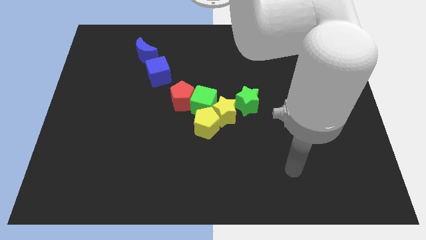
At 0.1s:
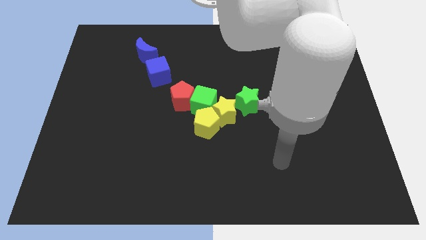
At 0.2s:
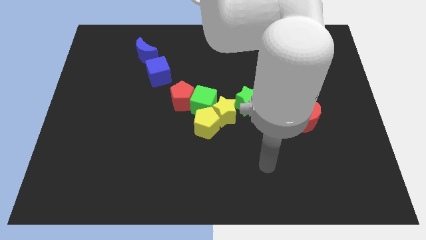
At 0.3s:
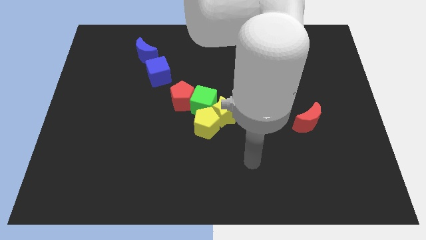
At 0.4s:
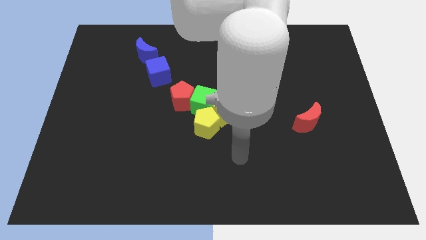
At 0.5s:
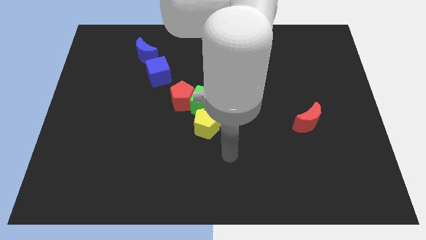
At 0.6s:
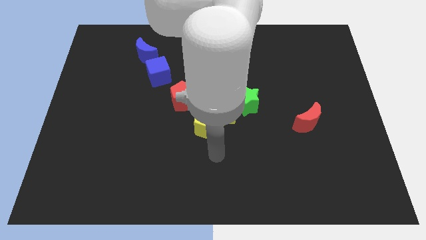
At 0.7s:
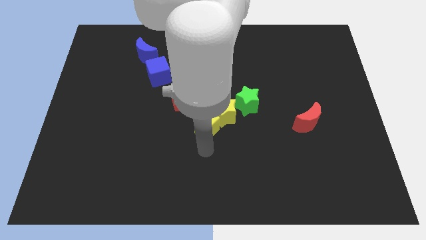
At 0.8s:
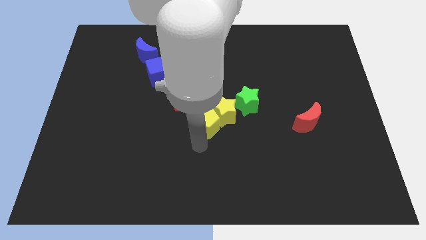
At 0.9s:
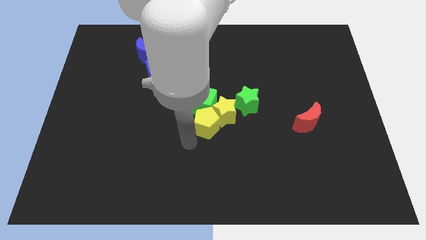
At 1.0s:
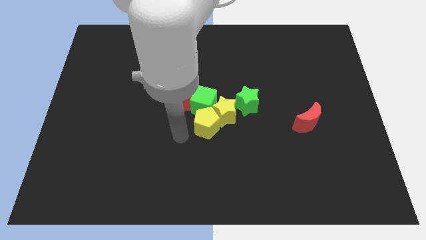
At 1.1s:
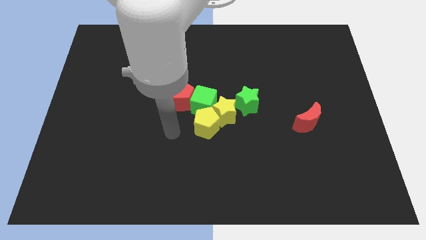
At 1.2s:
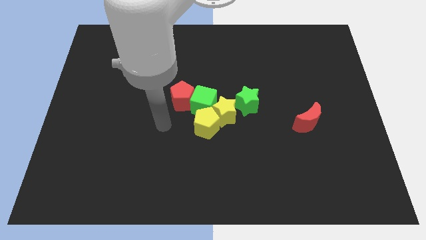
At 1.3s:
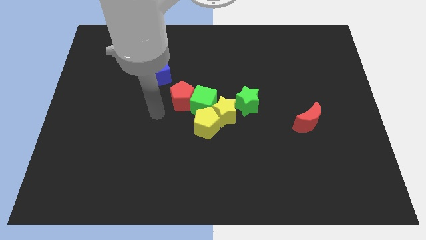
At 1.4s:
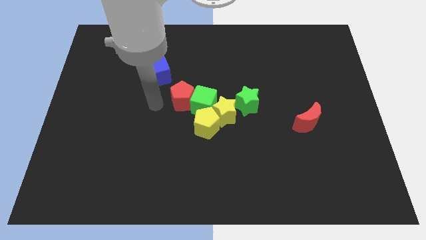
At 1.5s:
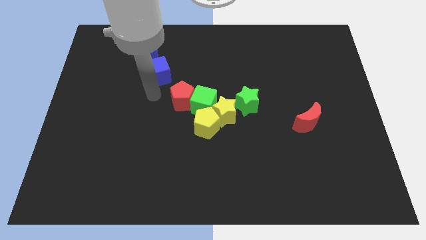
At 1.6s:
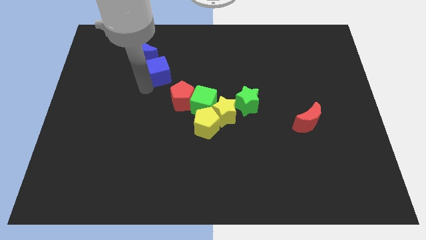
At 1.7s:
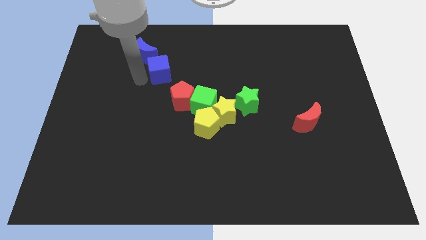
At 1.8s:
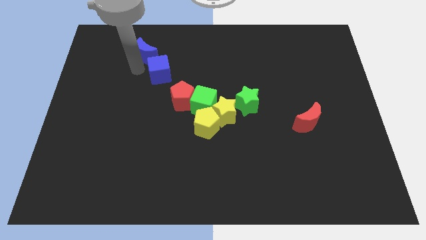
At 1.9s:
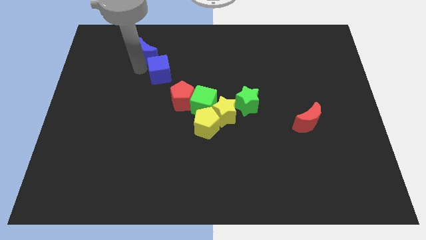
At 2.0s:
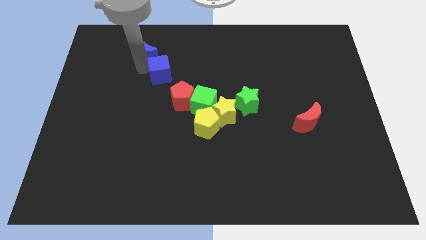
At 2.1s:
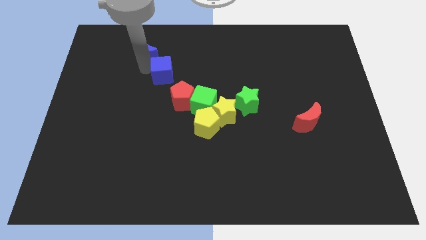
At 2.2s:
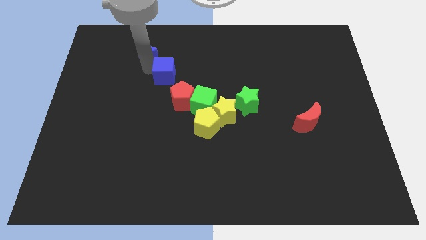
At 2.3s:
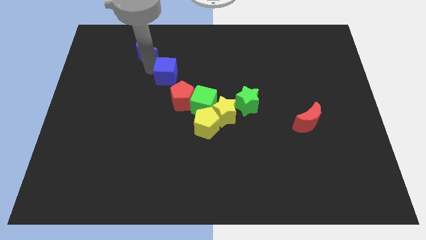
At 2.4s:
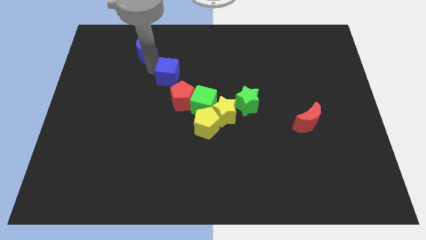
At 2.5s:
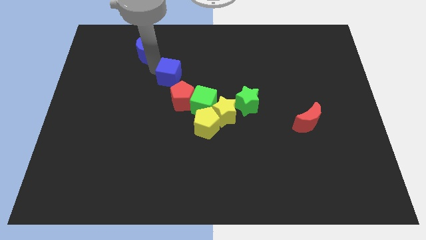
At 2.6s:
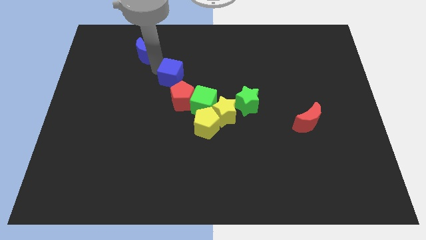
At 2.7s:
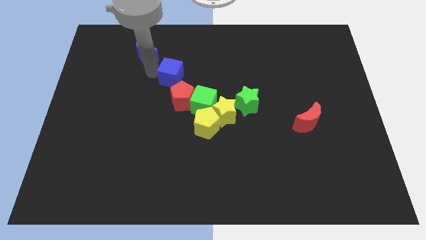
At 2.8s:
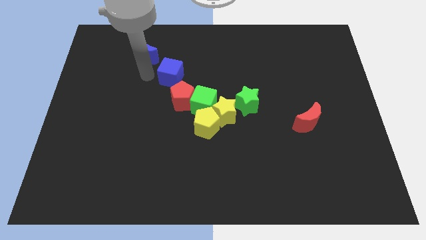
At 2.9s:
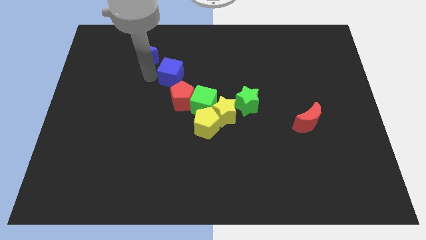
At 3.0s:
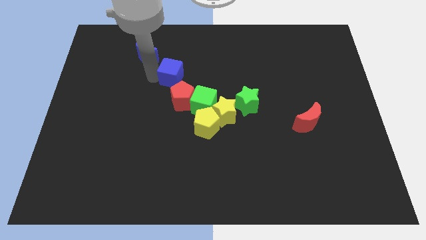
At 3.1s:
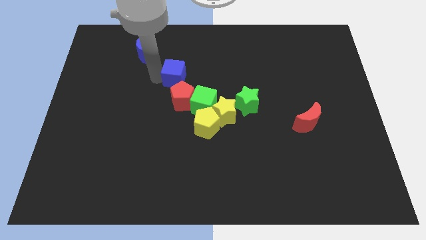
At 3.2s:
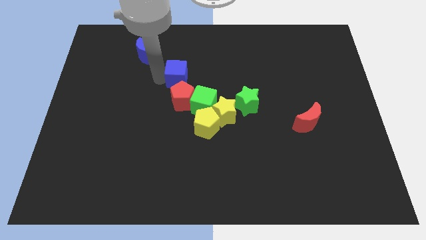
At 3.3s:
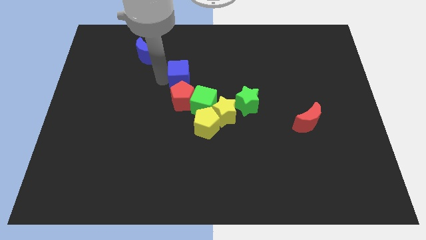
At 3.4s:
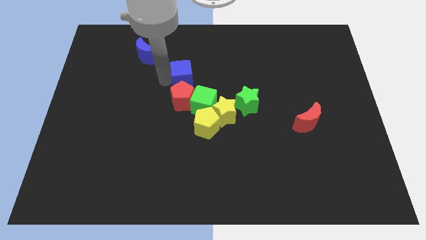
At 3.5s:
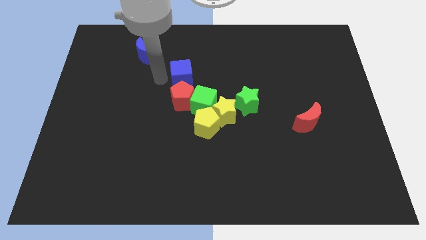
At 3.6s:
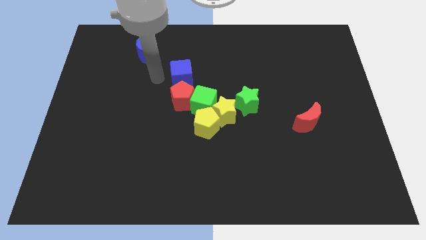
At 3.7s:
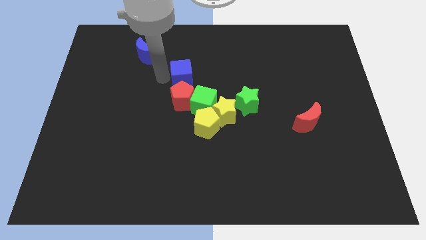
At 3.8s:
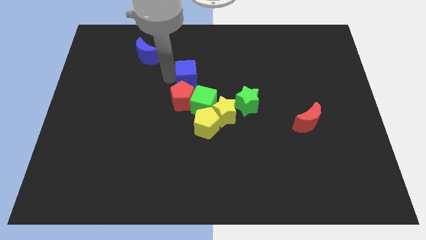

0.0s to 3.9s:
slightly move the blue cube right

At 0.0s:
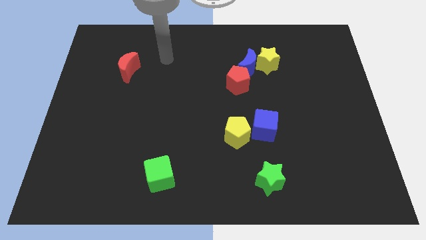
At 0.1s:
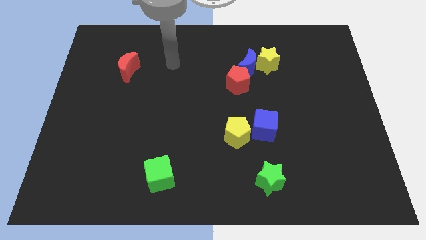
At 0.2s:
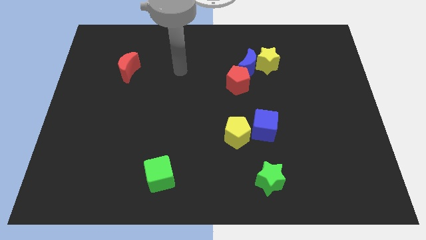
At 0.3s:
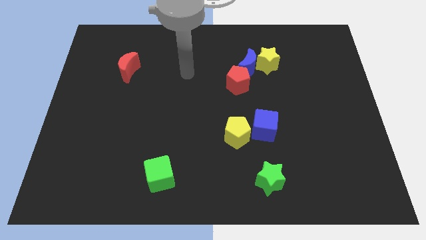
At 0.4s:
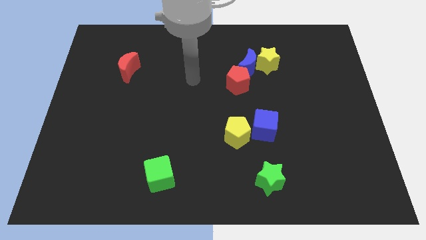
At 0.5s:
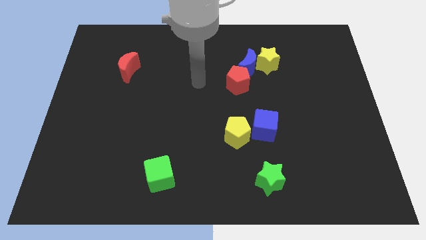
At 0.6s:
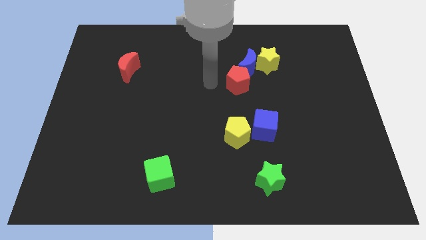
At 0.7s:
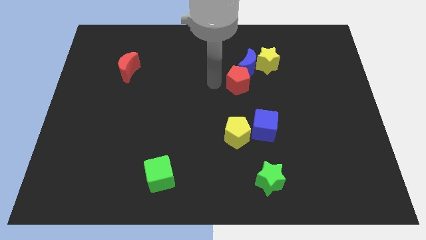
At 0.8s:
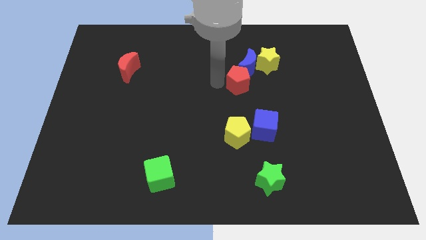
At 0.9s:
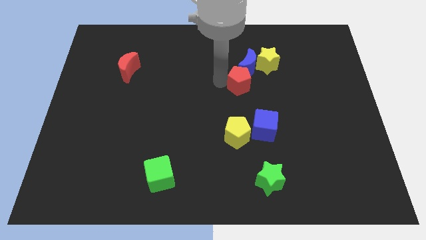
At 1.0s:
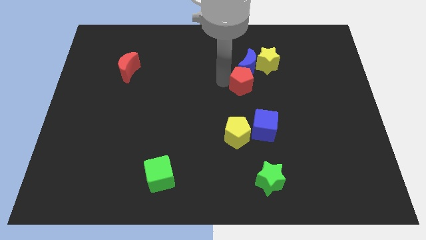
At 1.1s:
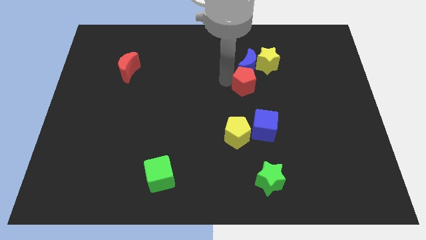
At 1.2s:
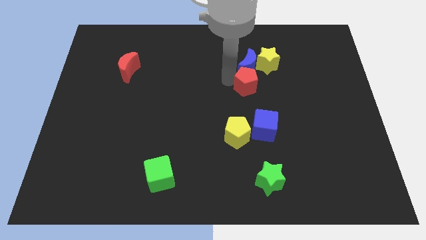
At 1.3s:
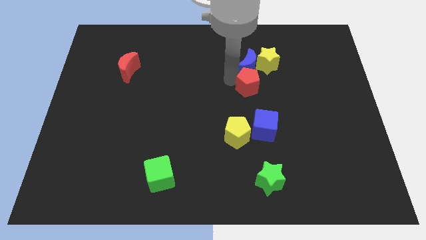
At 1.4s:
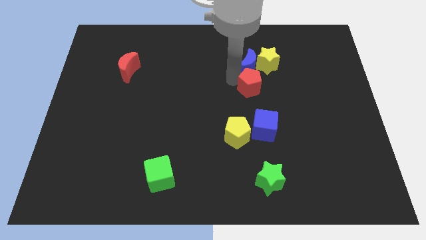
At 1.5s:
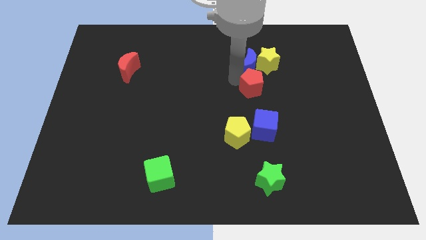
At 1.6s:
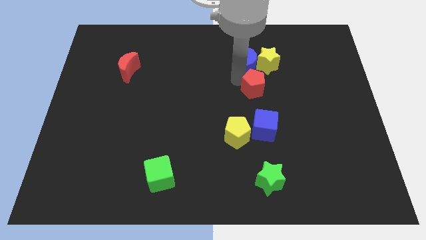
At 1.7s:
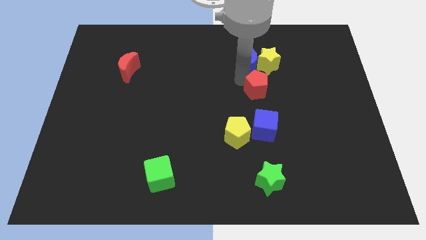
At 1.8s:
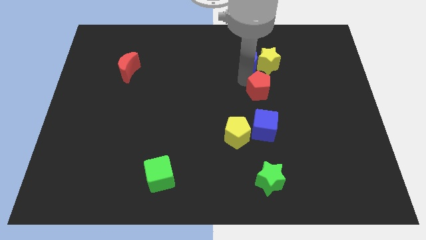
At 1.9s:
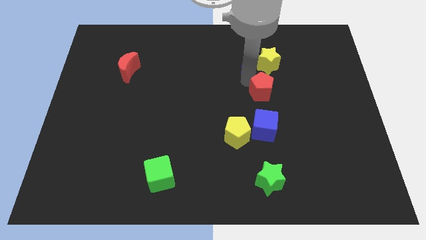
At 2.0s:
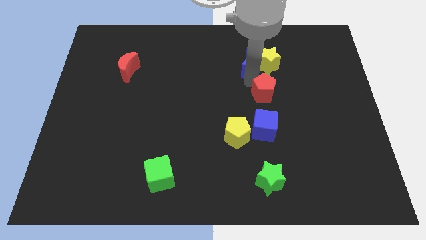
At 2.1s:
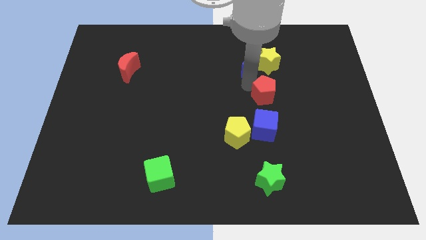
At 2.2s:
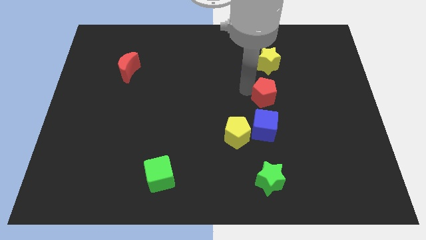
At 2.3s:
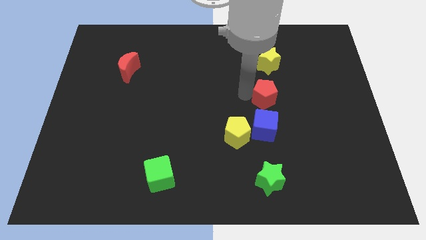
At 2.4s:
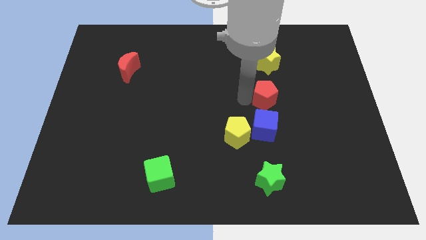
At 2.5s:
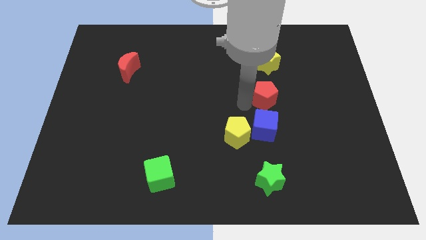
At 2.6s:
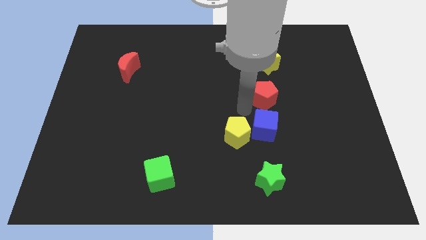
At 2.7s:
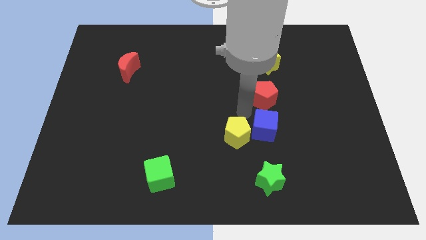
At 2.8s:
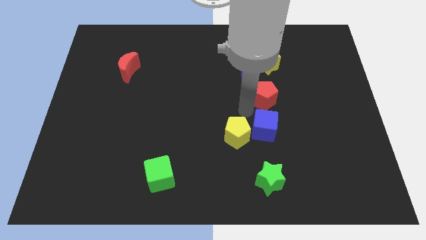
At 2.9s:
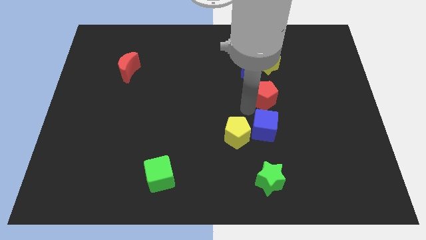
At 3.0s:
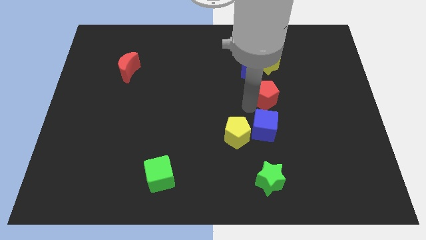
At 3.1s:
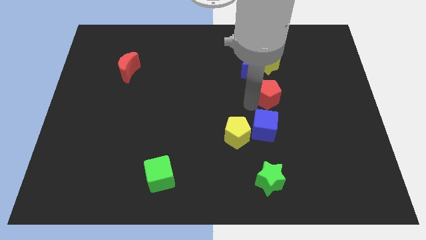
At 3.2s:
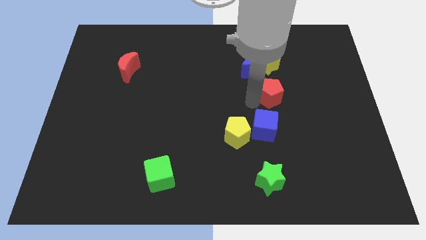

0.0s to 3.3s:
move the red pentagon somewhat right

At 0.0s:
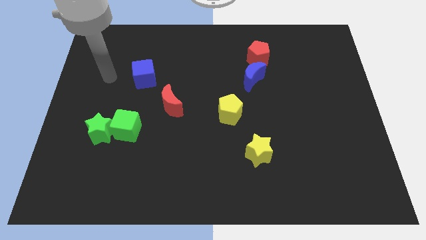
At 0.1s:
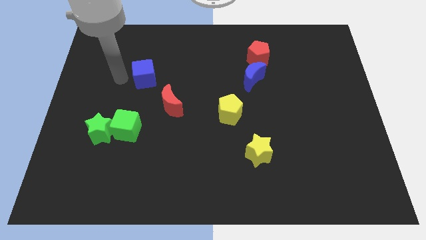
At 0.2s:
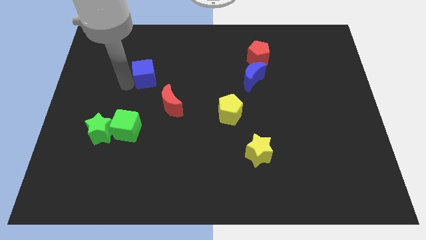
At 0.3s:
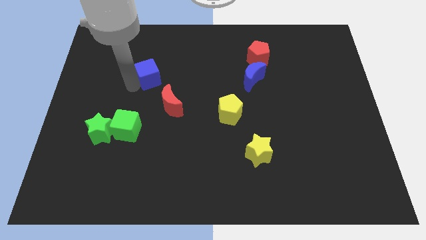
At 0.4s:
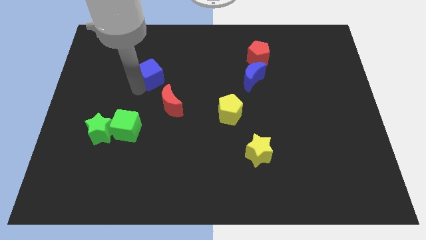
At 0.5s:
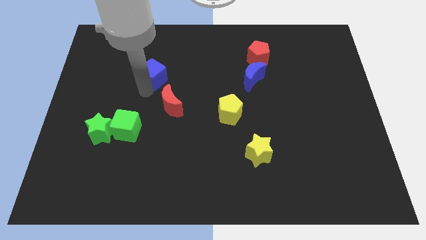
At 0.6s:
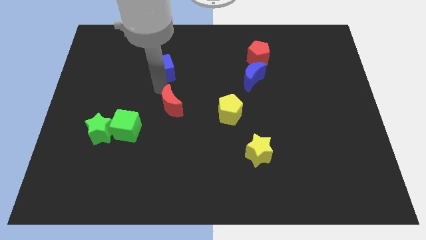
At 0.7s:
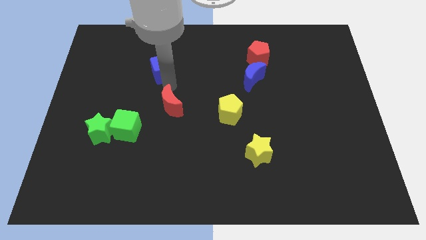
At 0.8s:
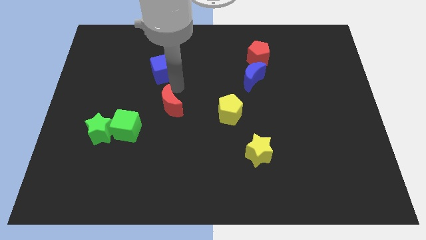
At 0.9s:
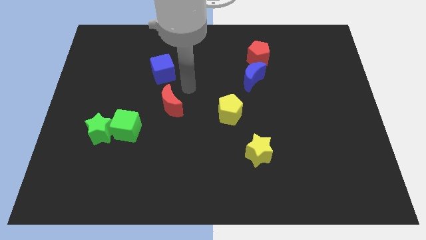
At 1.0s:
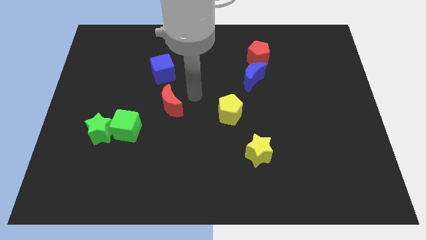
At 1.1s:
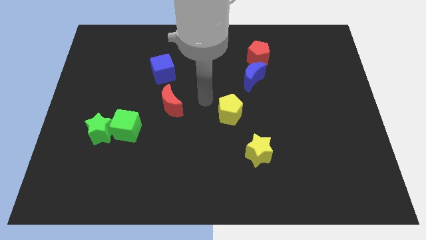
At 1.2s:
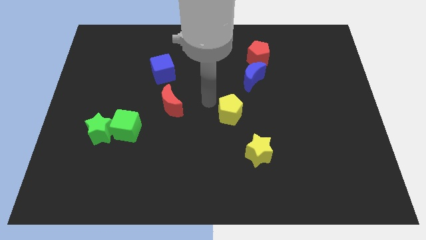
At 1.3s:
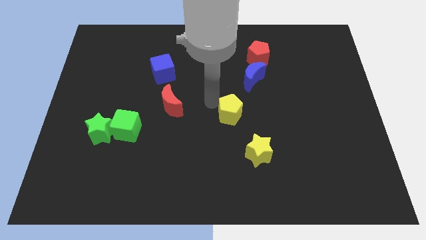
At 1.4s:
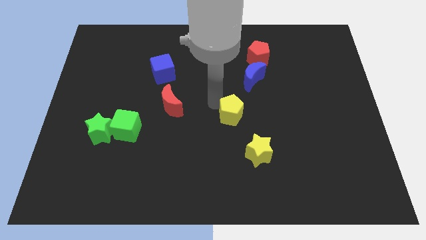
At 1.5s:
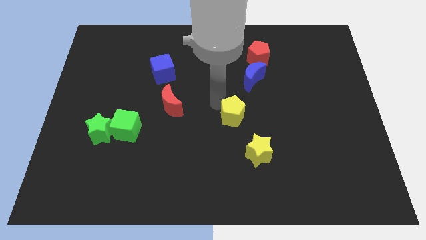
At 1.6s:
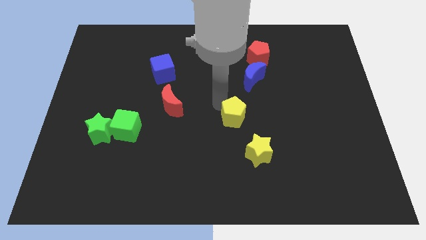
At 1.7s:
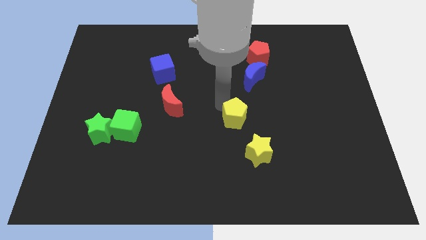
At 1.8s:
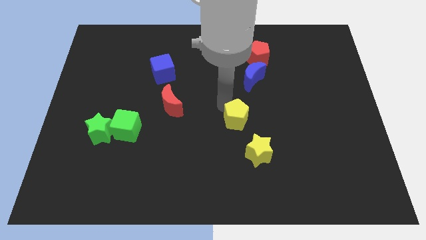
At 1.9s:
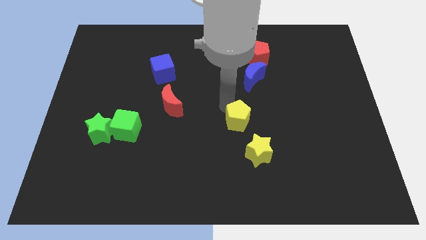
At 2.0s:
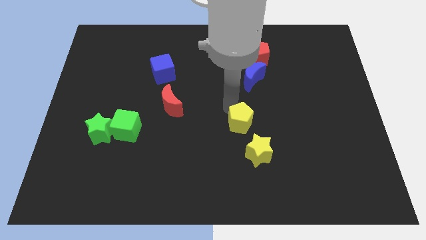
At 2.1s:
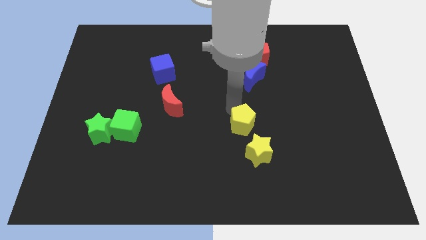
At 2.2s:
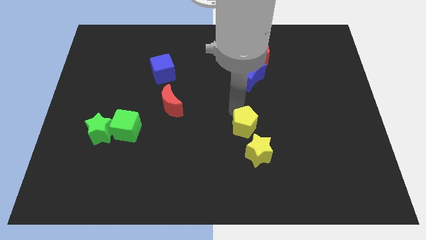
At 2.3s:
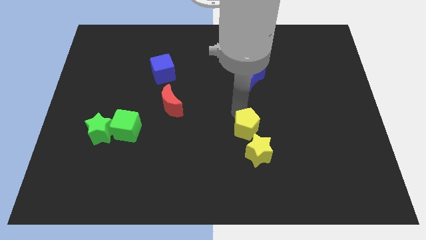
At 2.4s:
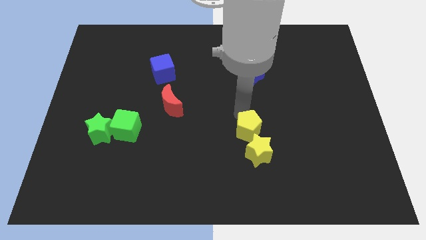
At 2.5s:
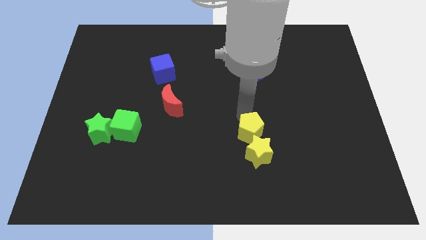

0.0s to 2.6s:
push the yellow pentagon downwards and to the right diagonally a bit
